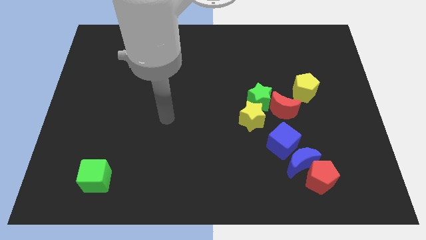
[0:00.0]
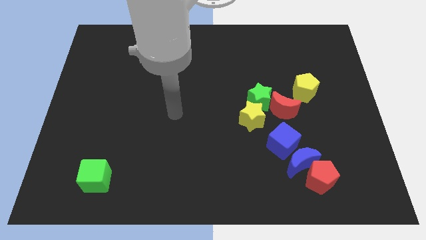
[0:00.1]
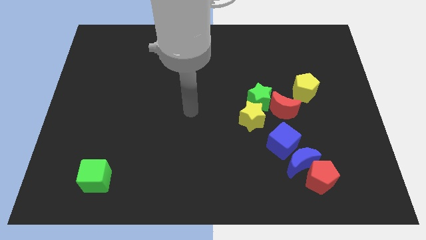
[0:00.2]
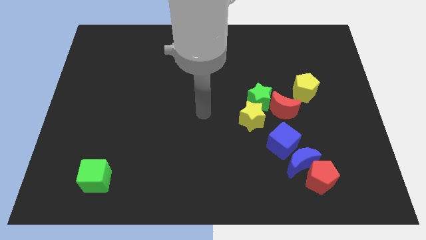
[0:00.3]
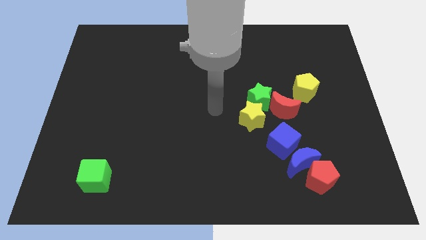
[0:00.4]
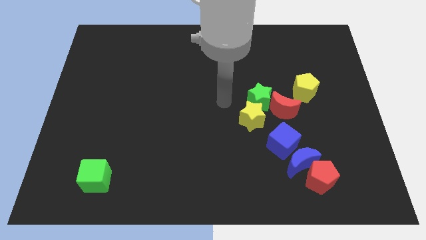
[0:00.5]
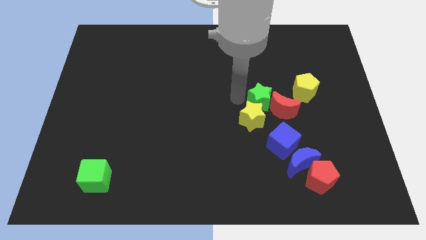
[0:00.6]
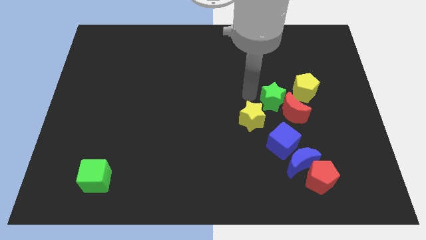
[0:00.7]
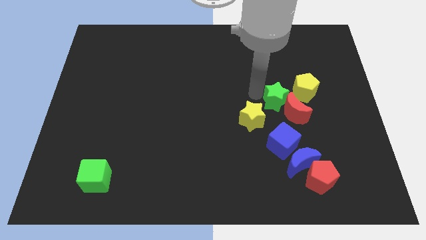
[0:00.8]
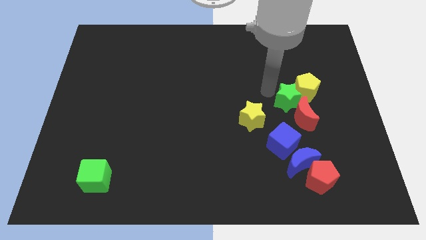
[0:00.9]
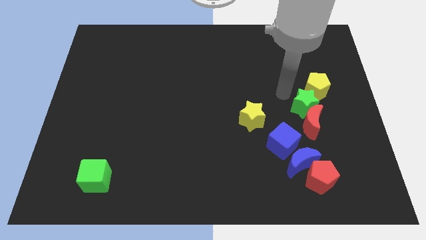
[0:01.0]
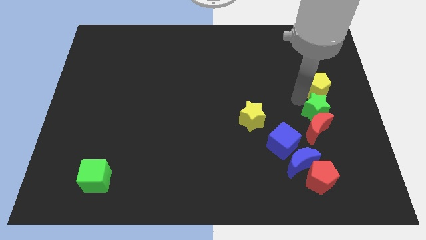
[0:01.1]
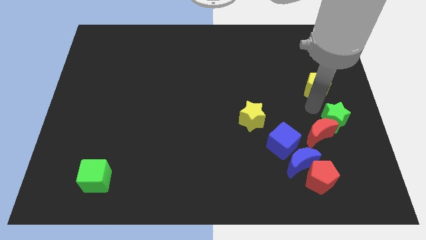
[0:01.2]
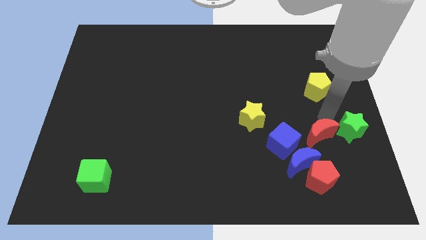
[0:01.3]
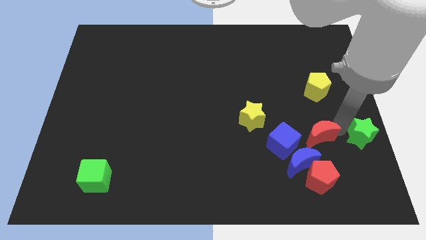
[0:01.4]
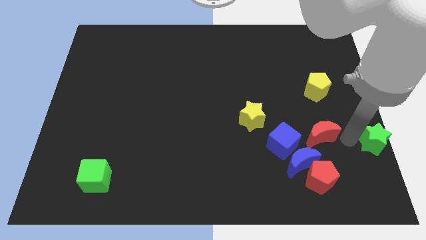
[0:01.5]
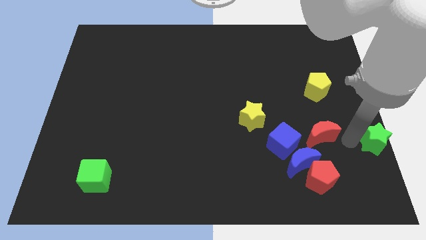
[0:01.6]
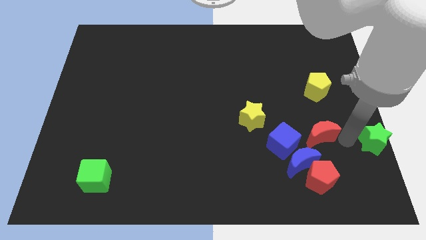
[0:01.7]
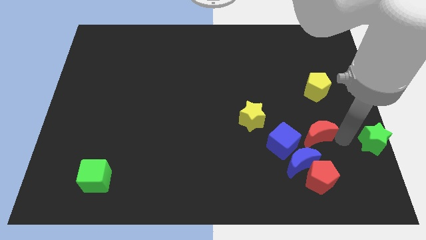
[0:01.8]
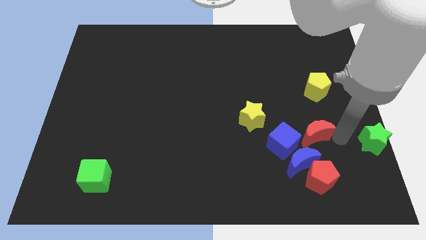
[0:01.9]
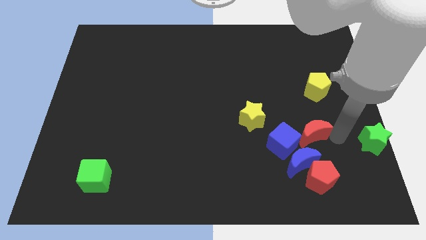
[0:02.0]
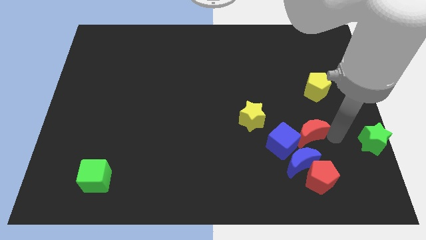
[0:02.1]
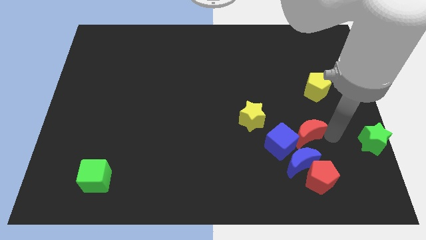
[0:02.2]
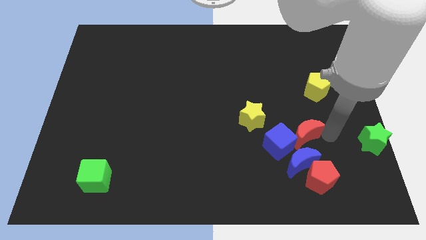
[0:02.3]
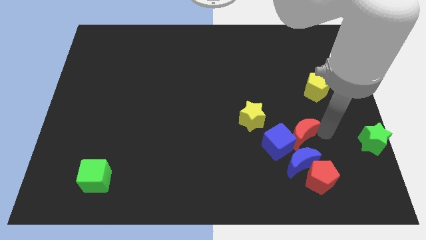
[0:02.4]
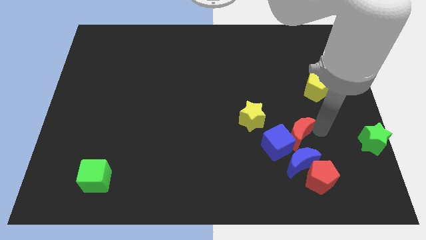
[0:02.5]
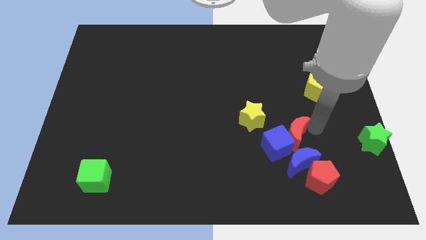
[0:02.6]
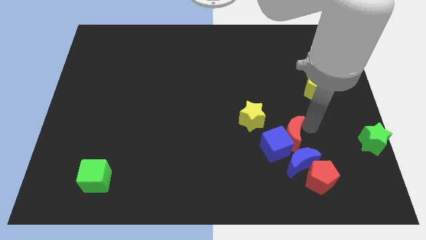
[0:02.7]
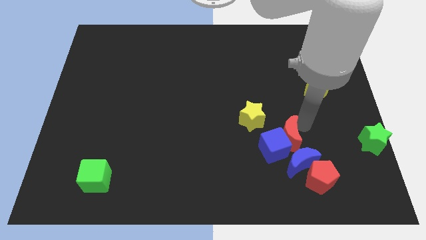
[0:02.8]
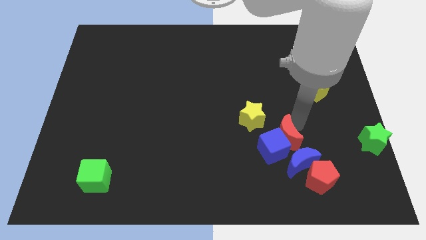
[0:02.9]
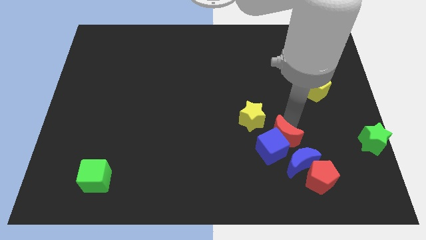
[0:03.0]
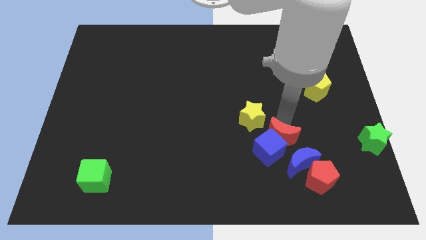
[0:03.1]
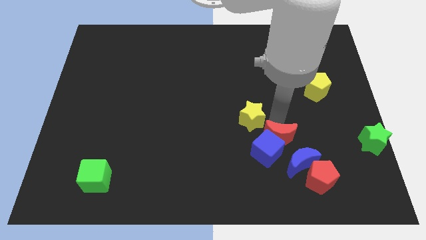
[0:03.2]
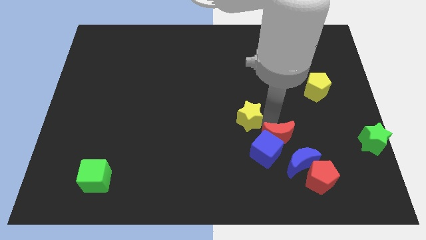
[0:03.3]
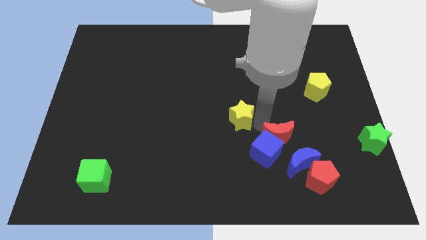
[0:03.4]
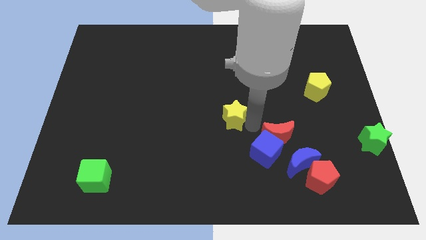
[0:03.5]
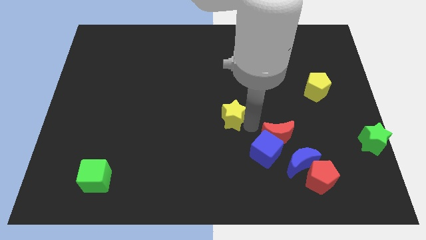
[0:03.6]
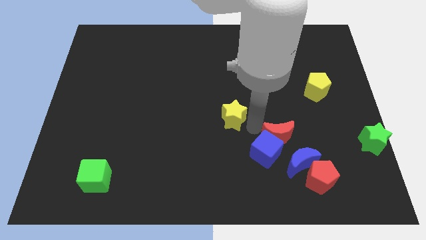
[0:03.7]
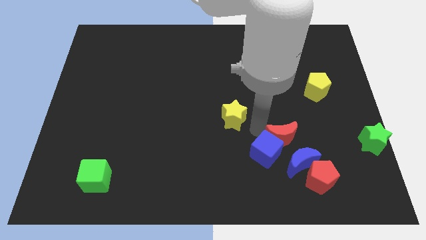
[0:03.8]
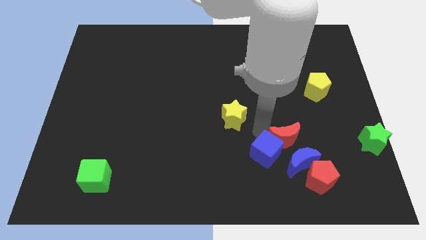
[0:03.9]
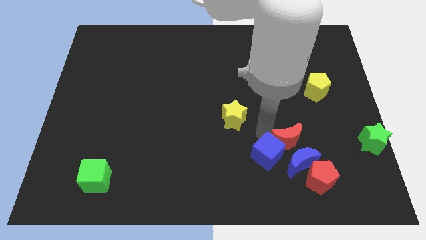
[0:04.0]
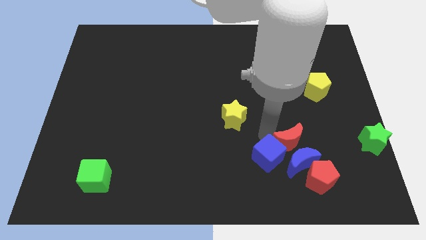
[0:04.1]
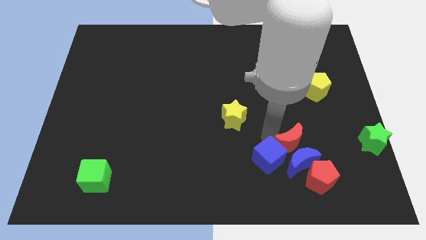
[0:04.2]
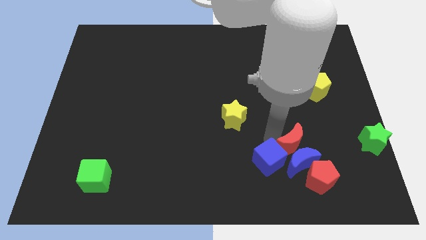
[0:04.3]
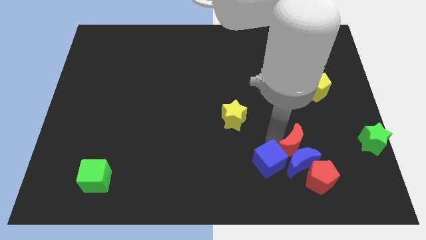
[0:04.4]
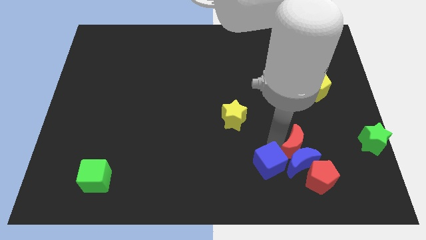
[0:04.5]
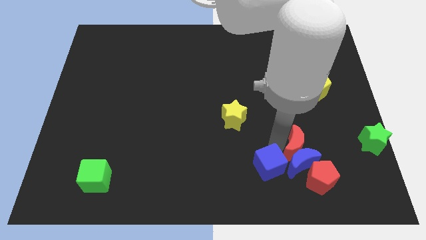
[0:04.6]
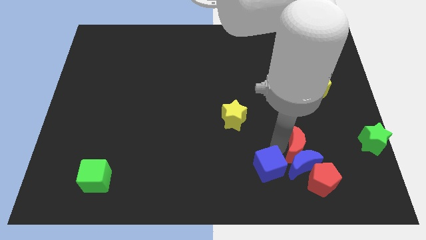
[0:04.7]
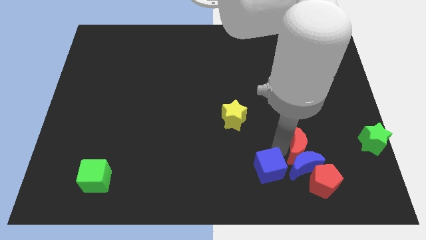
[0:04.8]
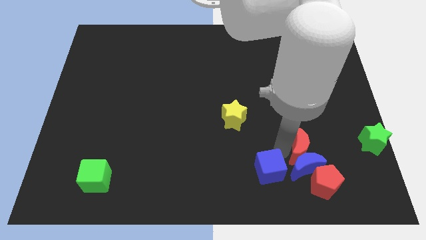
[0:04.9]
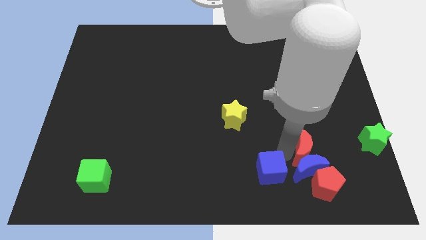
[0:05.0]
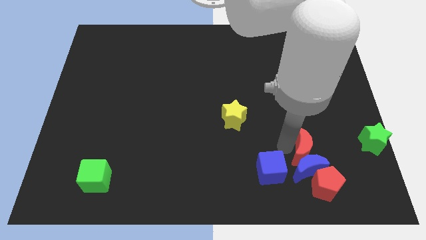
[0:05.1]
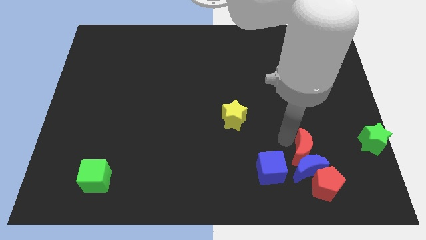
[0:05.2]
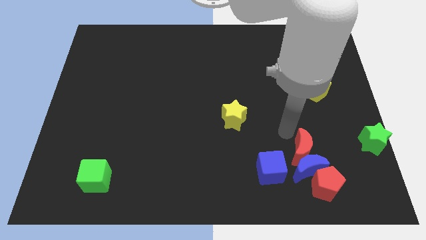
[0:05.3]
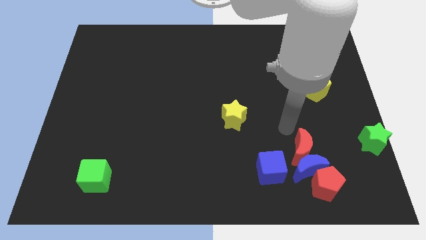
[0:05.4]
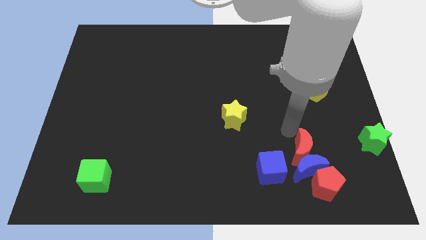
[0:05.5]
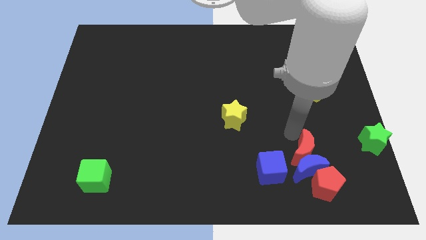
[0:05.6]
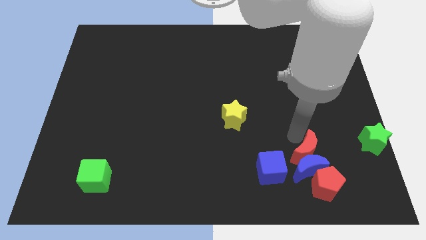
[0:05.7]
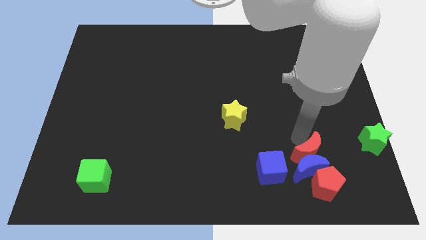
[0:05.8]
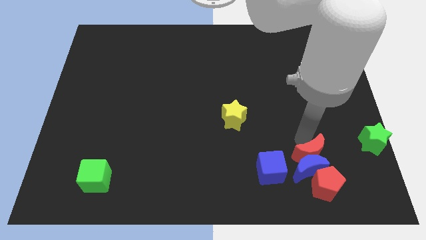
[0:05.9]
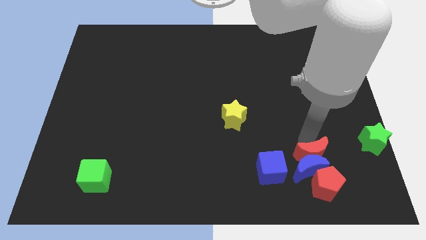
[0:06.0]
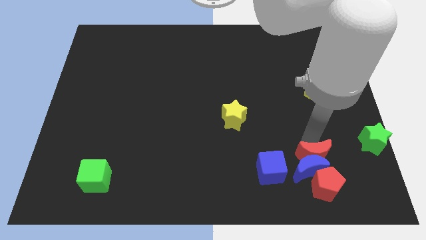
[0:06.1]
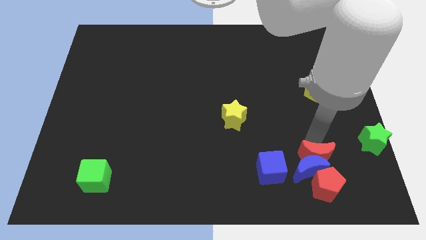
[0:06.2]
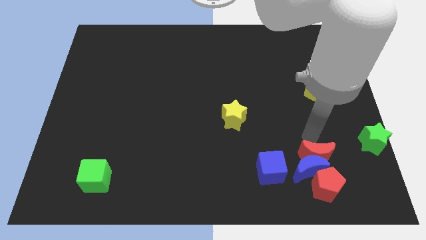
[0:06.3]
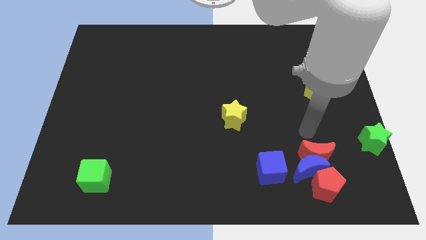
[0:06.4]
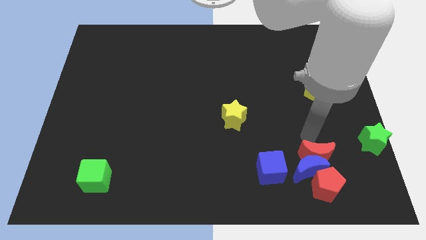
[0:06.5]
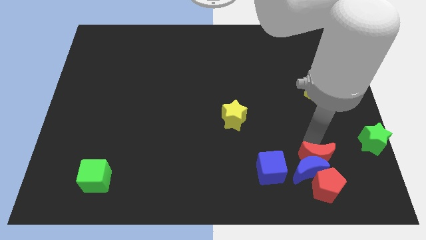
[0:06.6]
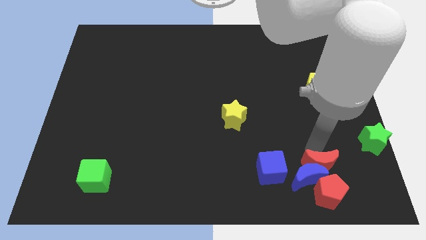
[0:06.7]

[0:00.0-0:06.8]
push the red moon next to the red pentagon
